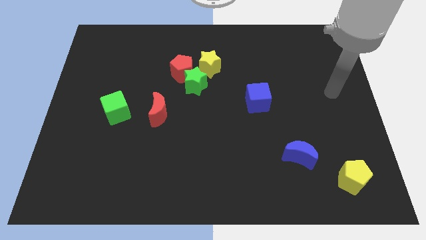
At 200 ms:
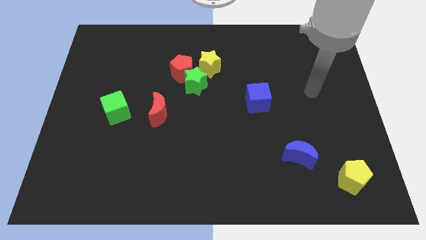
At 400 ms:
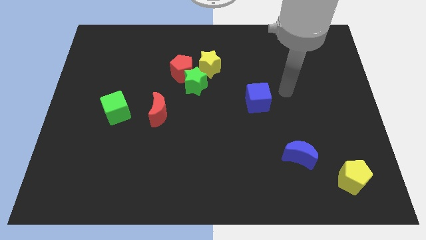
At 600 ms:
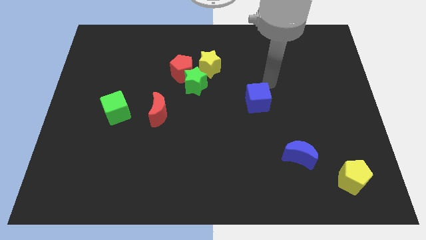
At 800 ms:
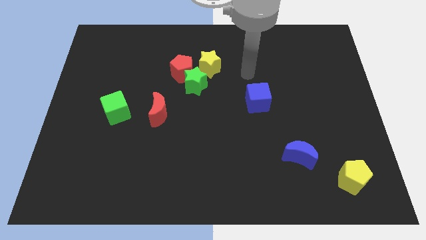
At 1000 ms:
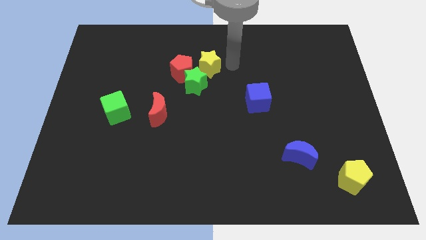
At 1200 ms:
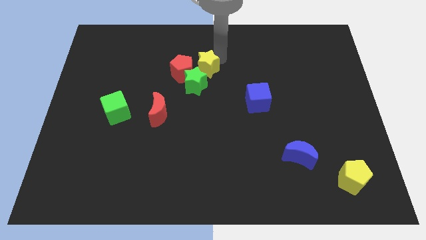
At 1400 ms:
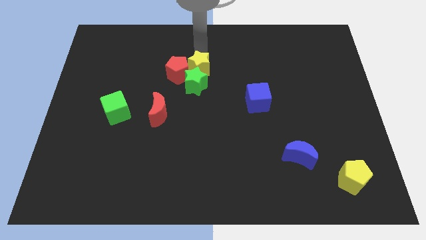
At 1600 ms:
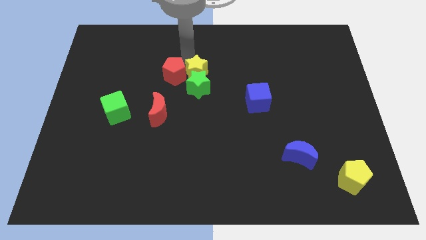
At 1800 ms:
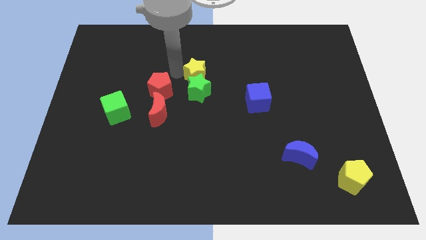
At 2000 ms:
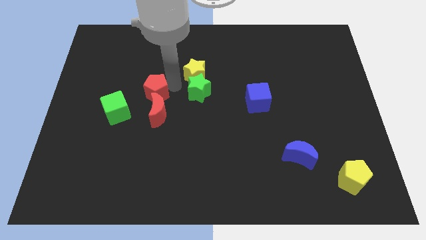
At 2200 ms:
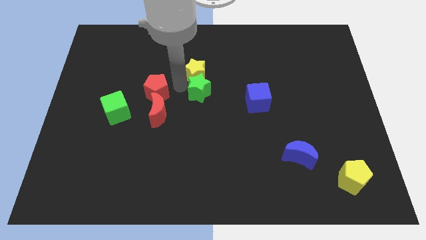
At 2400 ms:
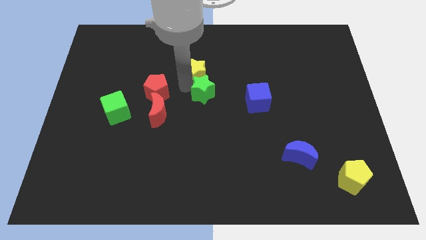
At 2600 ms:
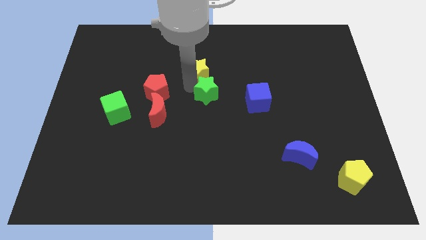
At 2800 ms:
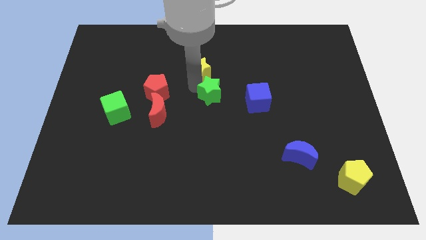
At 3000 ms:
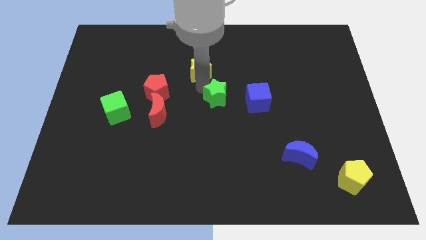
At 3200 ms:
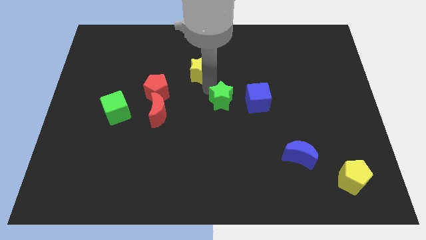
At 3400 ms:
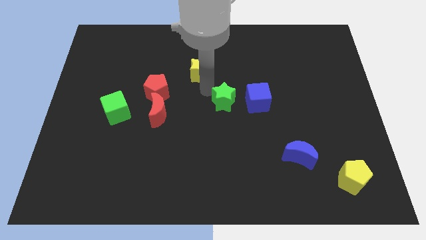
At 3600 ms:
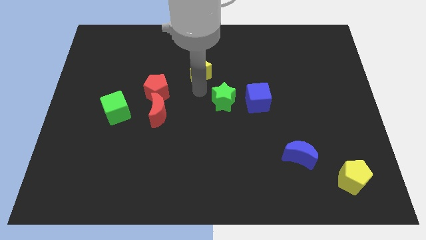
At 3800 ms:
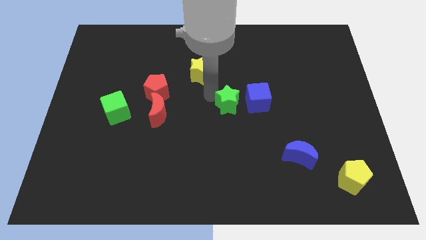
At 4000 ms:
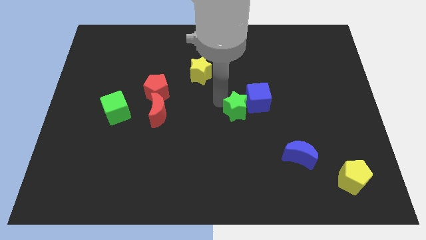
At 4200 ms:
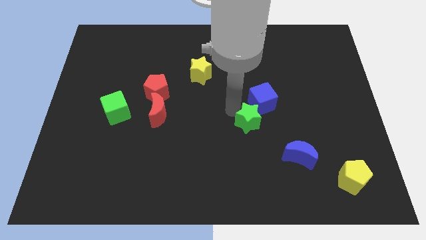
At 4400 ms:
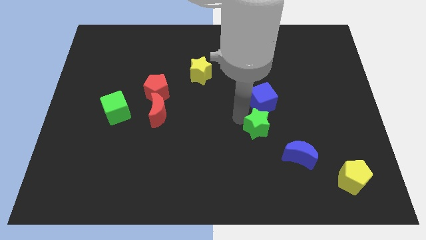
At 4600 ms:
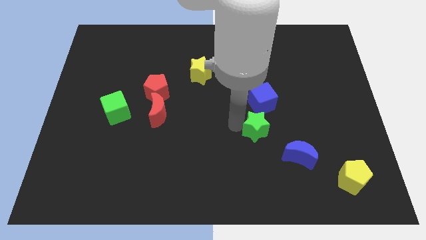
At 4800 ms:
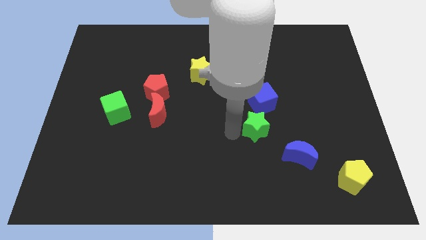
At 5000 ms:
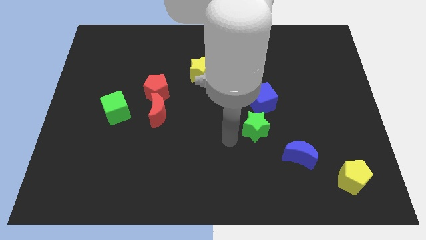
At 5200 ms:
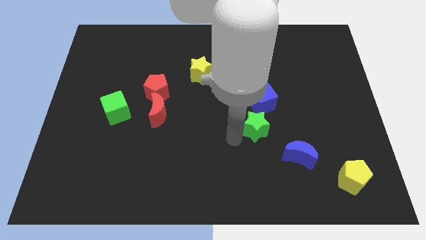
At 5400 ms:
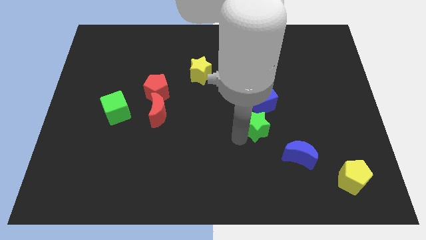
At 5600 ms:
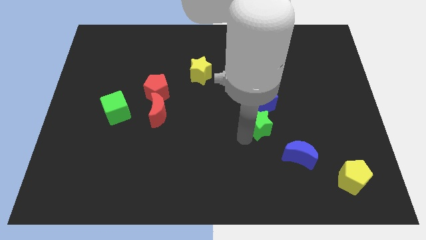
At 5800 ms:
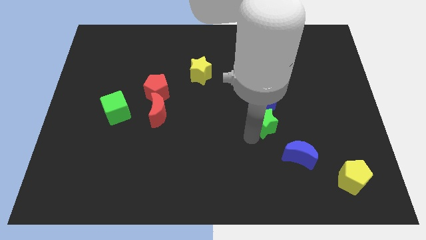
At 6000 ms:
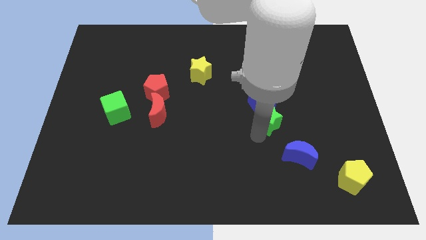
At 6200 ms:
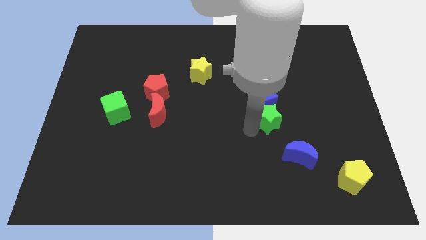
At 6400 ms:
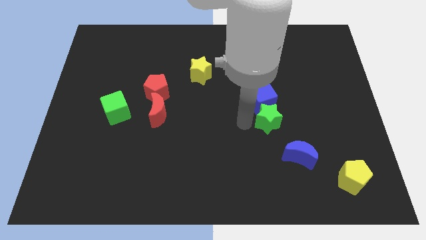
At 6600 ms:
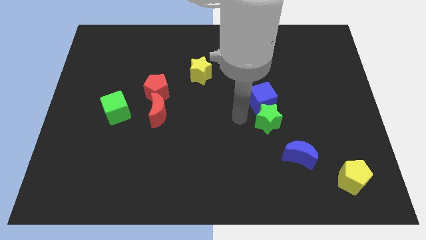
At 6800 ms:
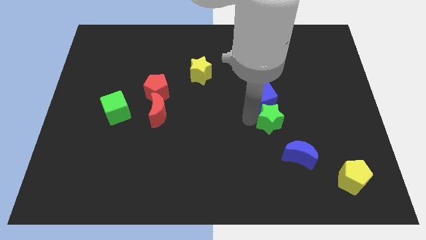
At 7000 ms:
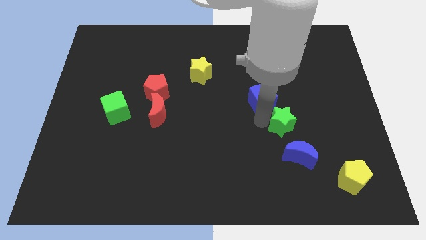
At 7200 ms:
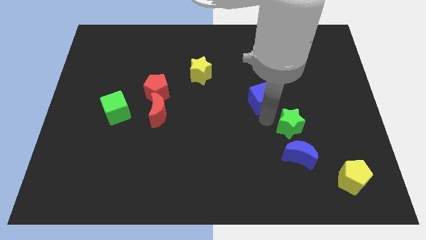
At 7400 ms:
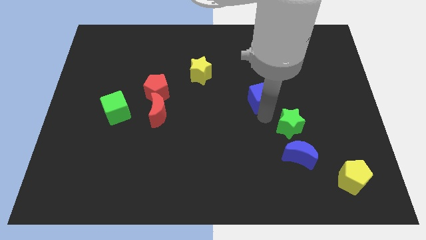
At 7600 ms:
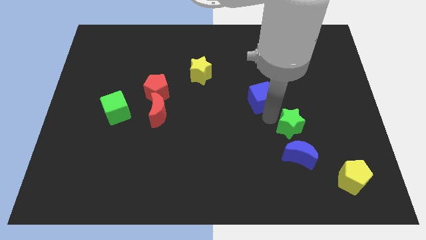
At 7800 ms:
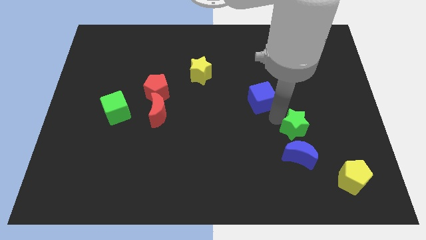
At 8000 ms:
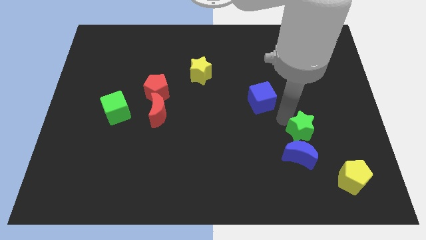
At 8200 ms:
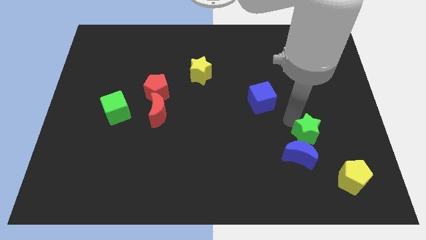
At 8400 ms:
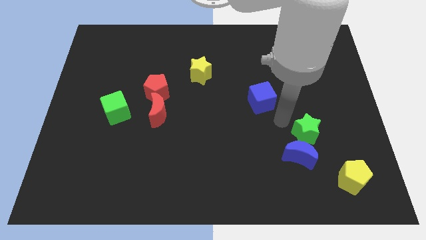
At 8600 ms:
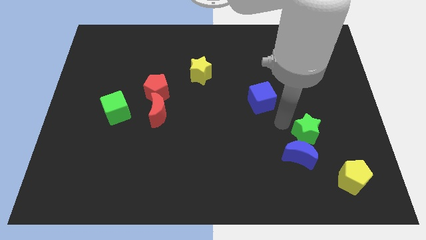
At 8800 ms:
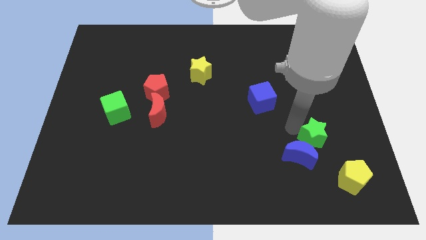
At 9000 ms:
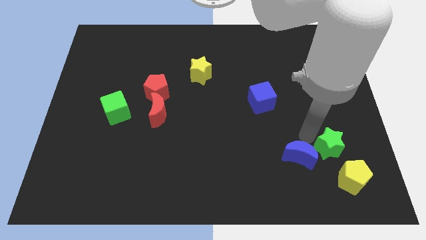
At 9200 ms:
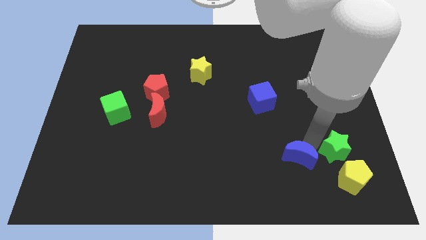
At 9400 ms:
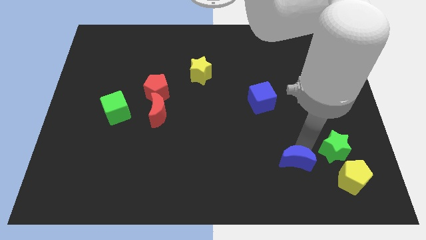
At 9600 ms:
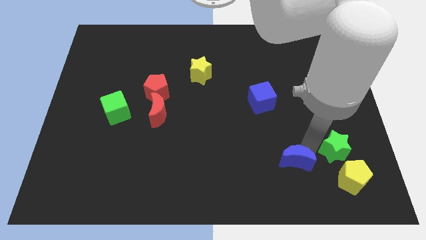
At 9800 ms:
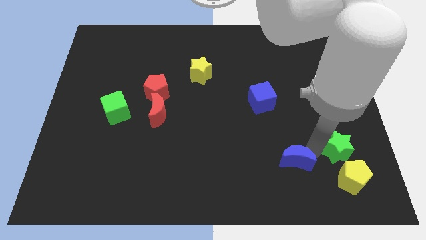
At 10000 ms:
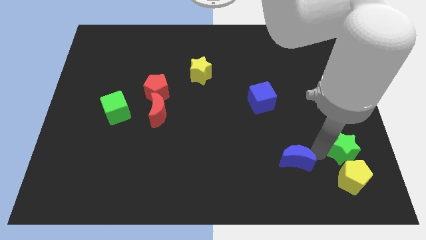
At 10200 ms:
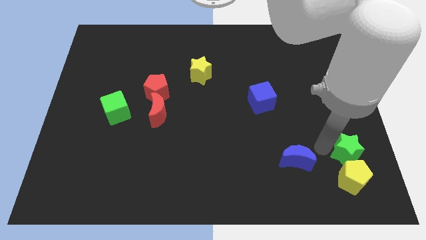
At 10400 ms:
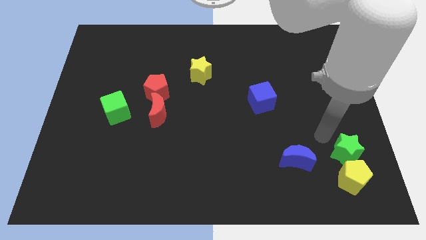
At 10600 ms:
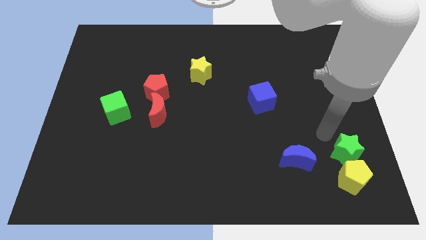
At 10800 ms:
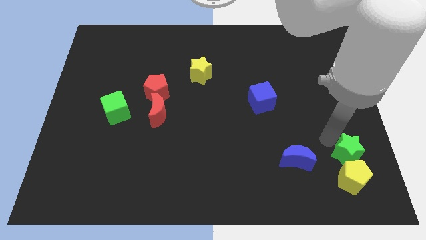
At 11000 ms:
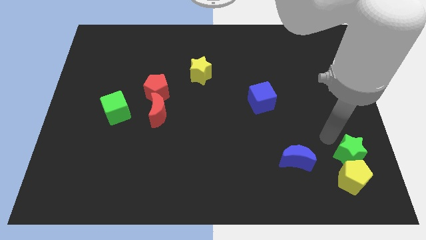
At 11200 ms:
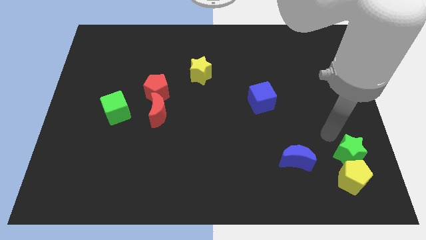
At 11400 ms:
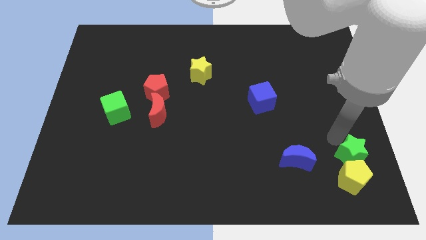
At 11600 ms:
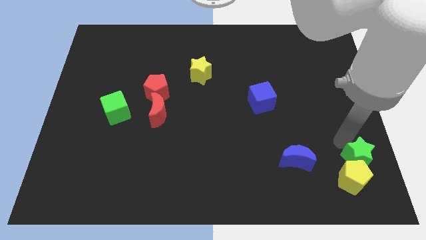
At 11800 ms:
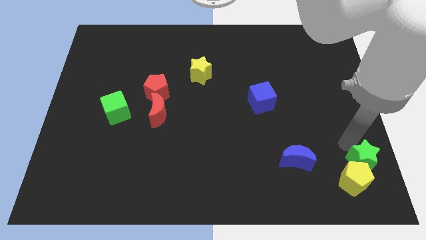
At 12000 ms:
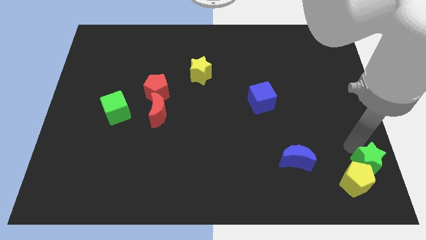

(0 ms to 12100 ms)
move the green star to the bottom right of the board

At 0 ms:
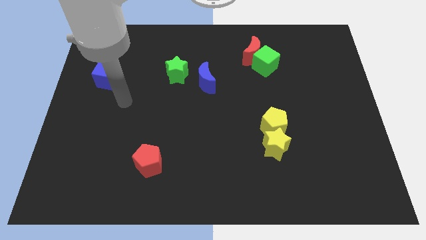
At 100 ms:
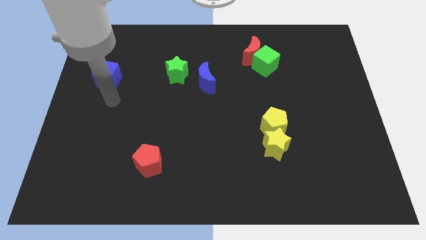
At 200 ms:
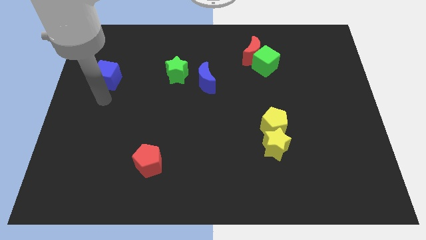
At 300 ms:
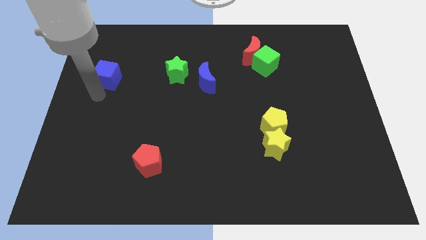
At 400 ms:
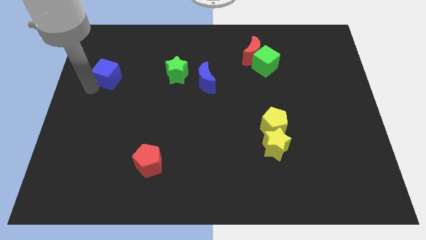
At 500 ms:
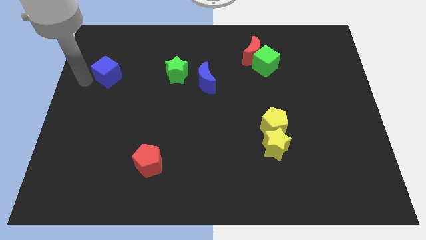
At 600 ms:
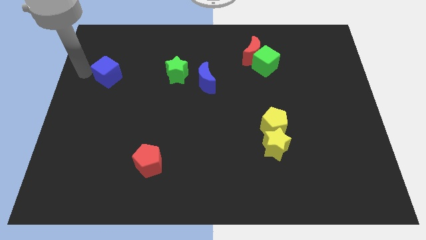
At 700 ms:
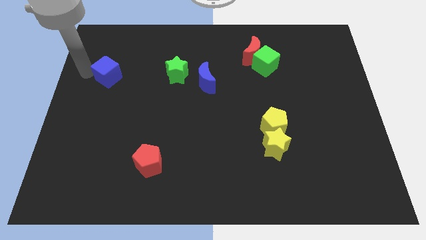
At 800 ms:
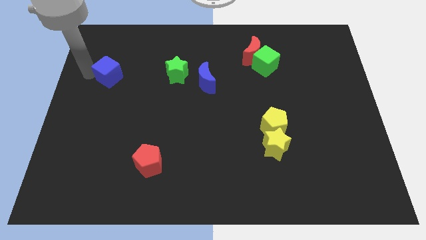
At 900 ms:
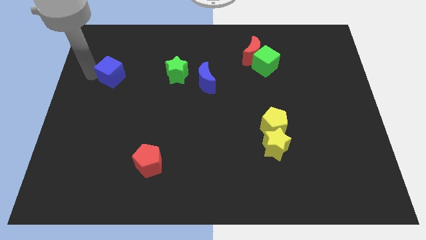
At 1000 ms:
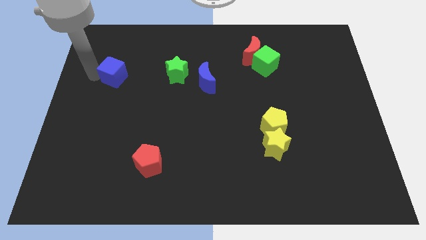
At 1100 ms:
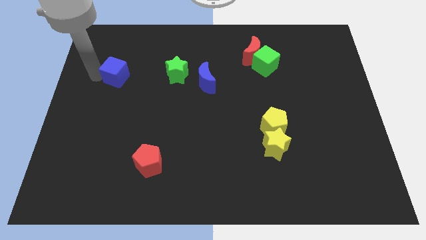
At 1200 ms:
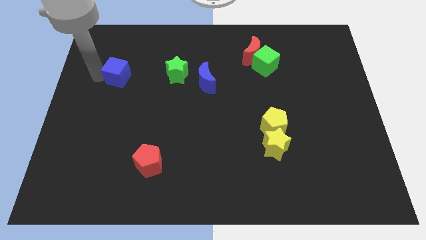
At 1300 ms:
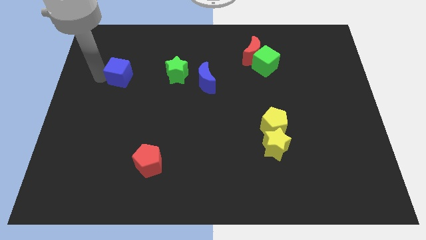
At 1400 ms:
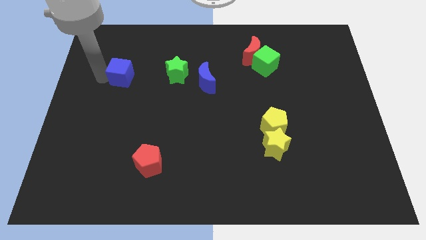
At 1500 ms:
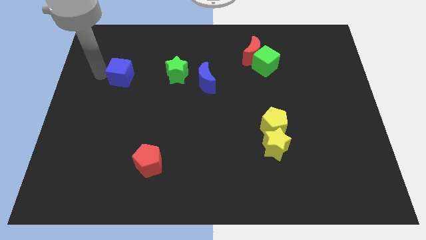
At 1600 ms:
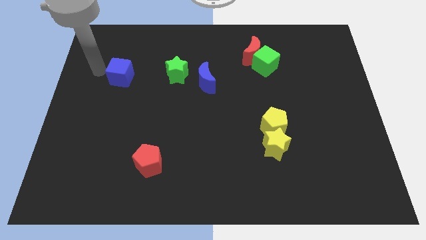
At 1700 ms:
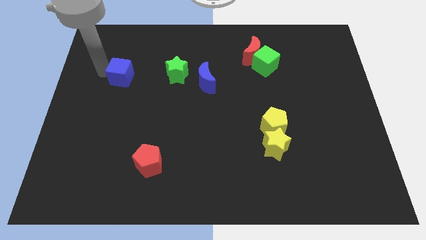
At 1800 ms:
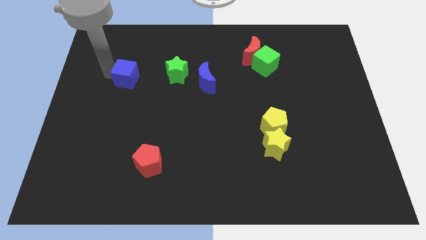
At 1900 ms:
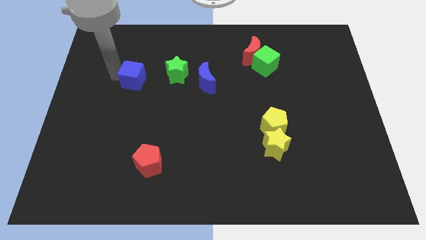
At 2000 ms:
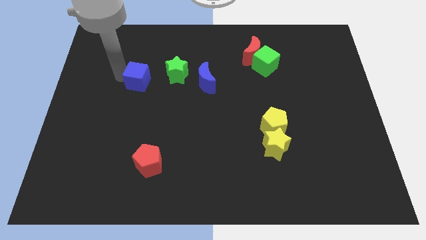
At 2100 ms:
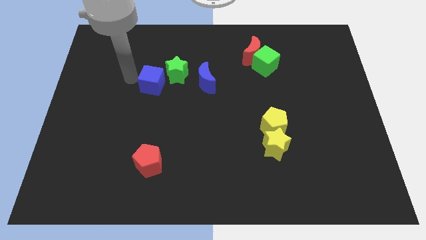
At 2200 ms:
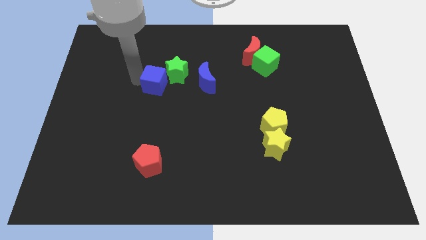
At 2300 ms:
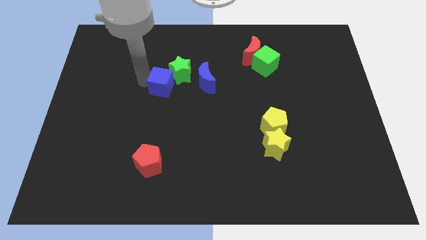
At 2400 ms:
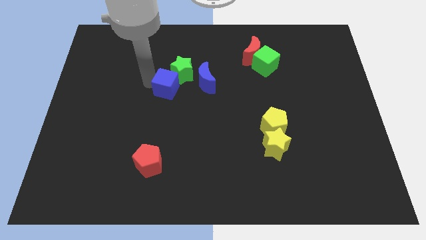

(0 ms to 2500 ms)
move the blue cube to the middle
